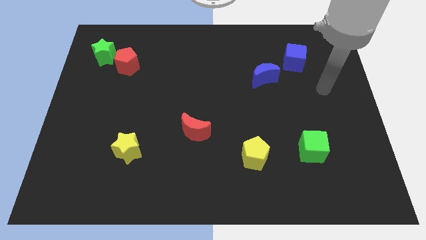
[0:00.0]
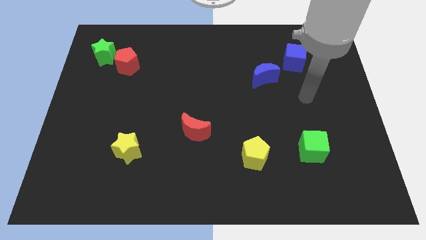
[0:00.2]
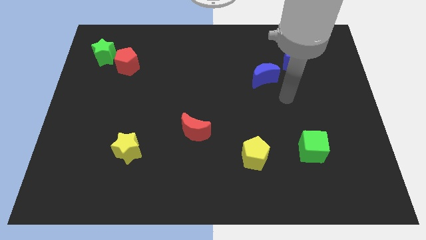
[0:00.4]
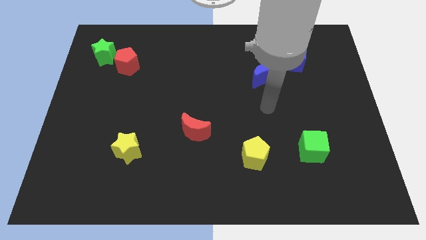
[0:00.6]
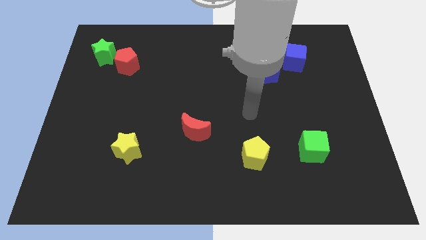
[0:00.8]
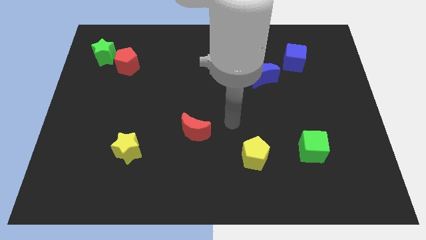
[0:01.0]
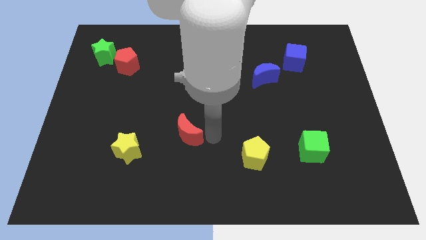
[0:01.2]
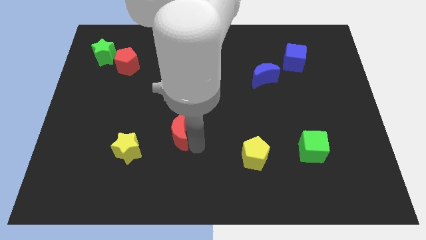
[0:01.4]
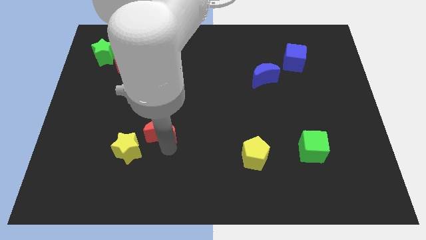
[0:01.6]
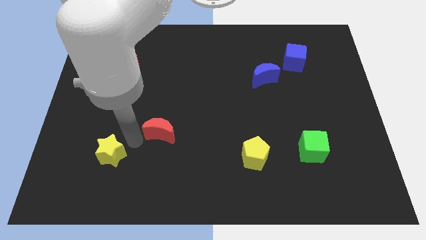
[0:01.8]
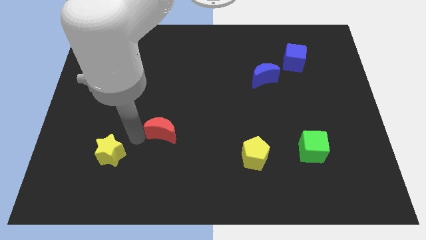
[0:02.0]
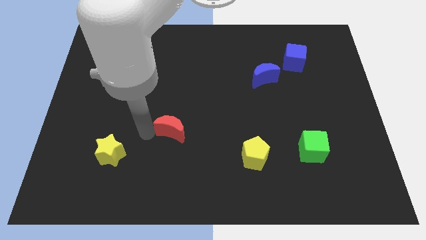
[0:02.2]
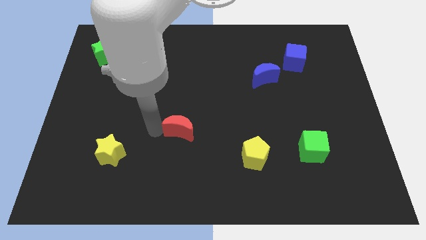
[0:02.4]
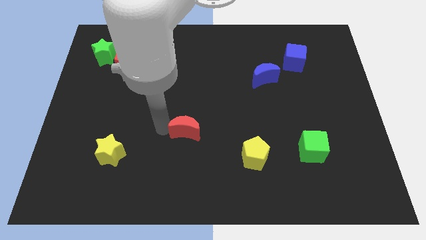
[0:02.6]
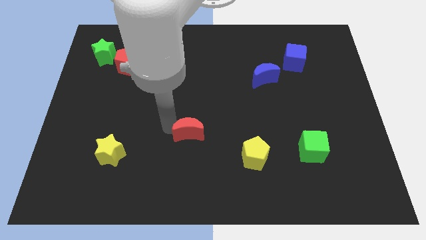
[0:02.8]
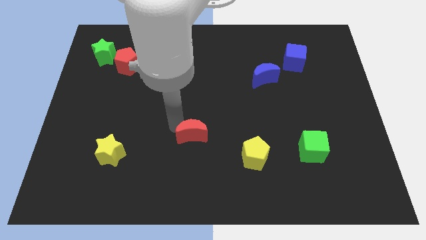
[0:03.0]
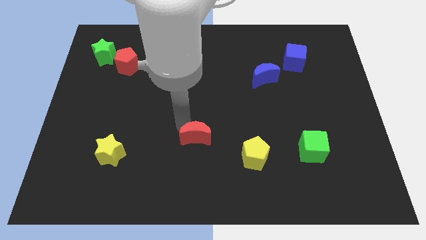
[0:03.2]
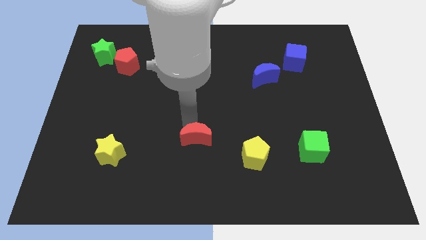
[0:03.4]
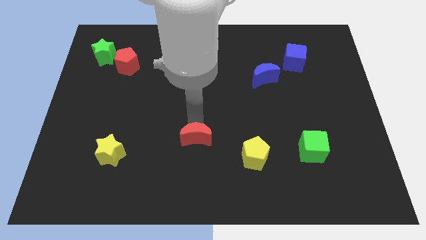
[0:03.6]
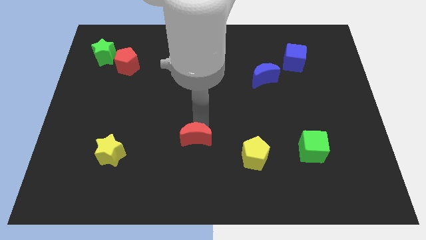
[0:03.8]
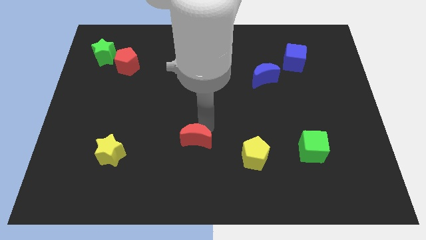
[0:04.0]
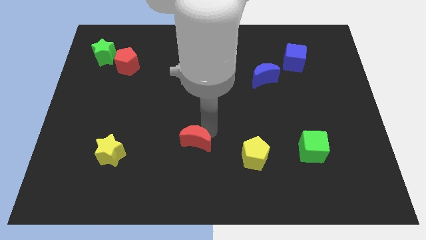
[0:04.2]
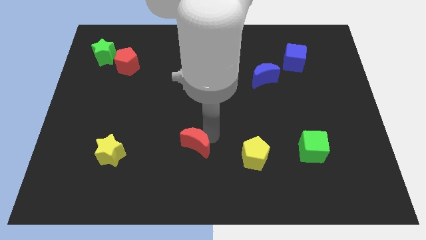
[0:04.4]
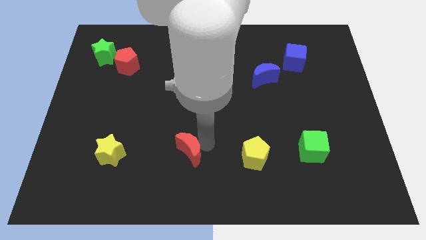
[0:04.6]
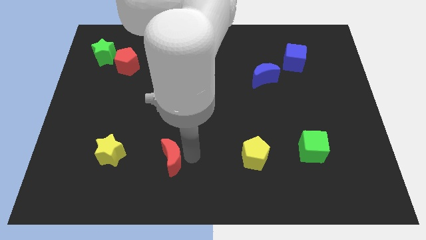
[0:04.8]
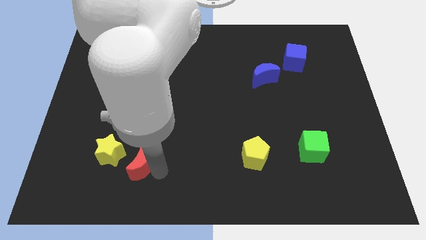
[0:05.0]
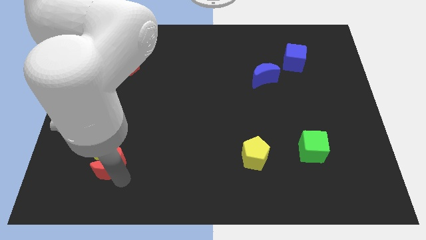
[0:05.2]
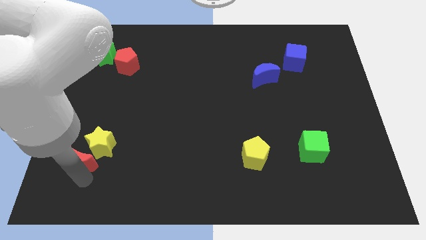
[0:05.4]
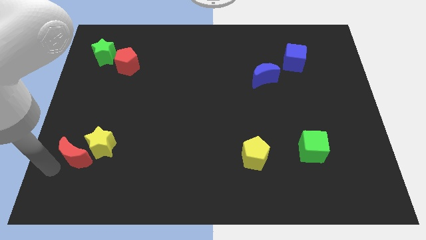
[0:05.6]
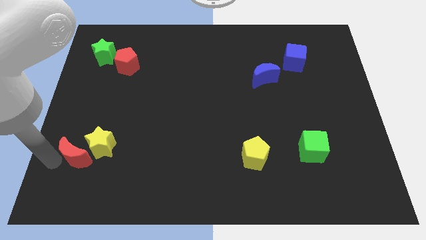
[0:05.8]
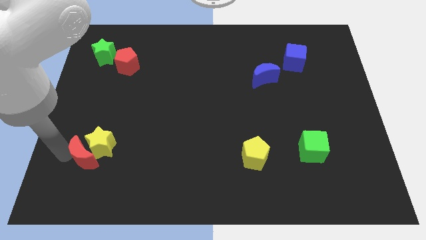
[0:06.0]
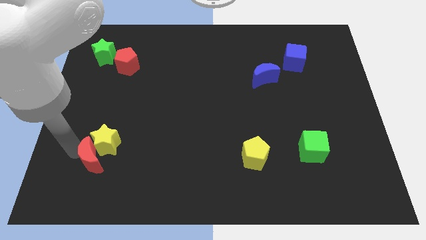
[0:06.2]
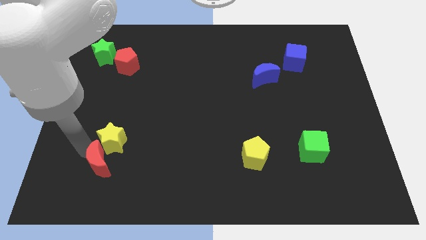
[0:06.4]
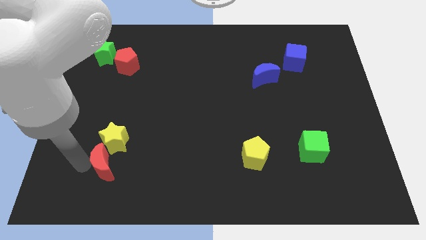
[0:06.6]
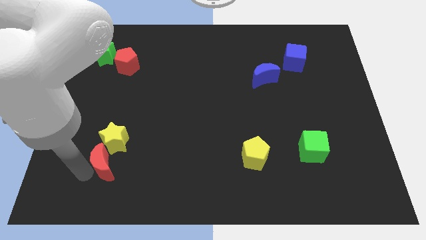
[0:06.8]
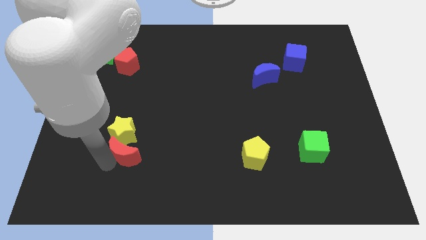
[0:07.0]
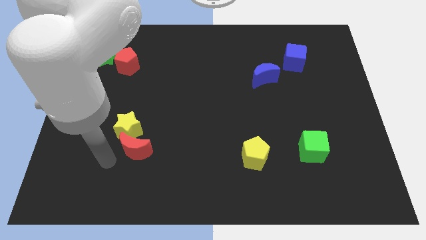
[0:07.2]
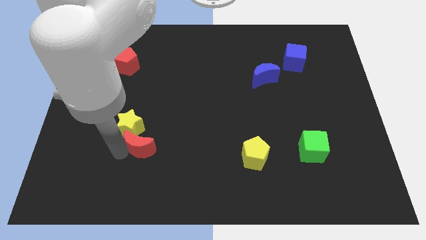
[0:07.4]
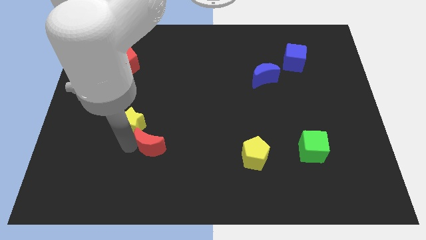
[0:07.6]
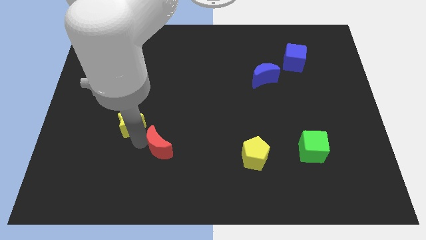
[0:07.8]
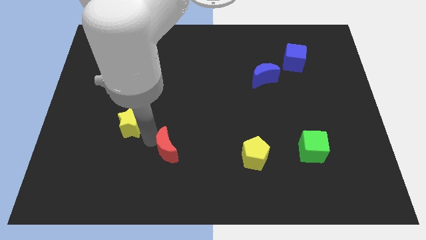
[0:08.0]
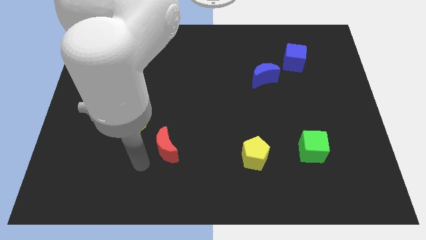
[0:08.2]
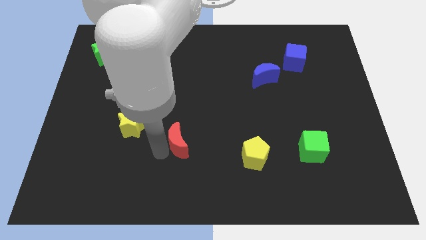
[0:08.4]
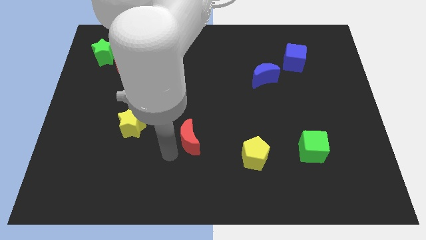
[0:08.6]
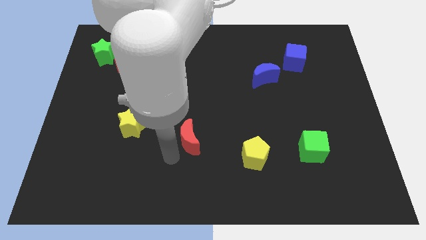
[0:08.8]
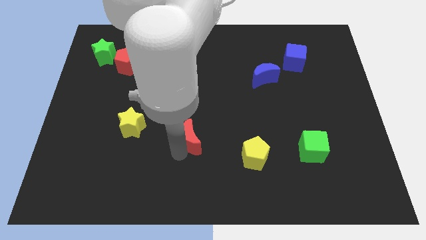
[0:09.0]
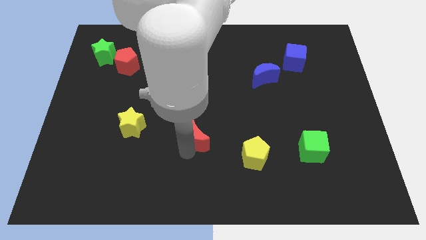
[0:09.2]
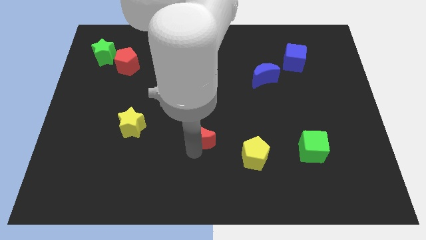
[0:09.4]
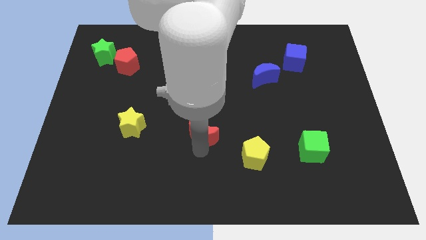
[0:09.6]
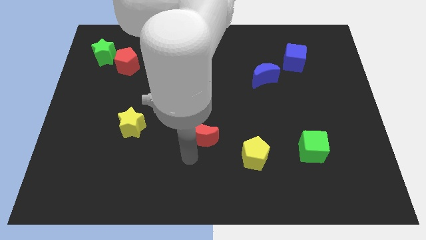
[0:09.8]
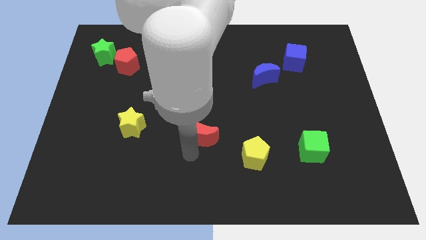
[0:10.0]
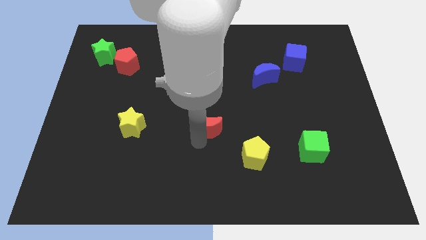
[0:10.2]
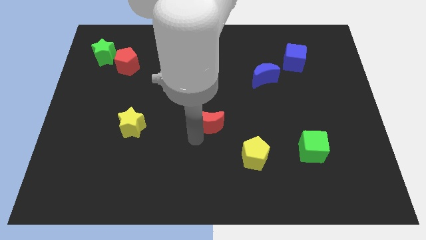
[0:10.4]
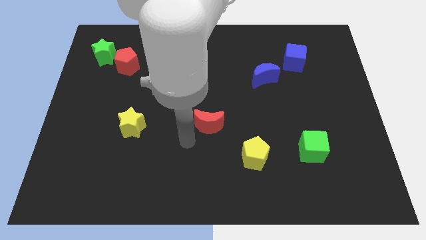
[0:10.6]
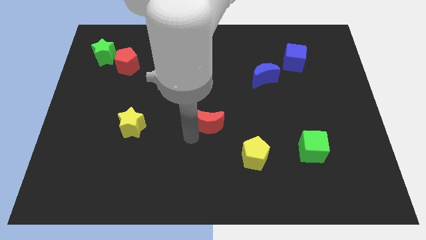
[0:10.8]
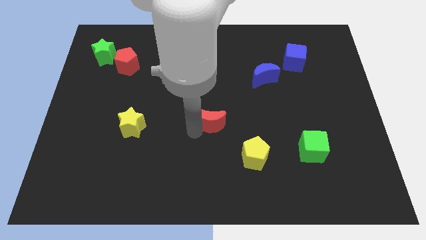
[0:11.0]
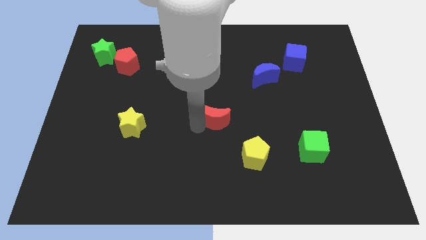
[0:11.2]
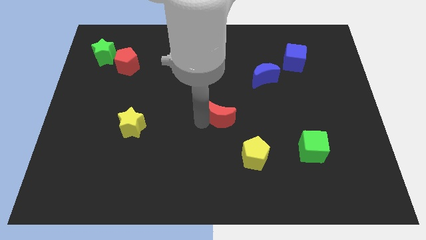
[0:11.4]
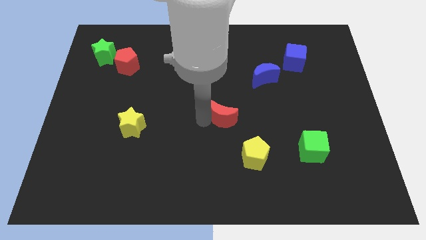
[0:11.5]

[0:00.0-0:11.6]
slightly push the red moon upwards and right diagonally

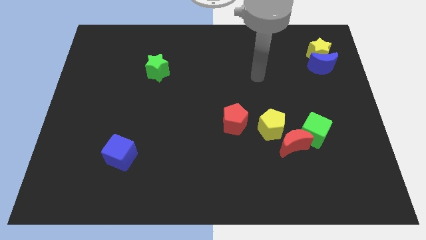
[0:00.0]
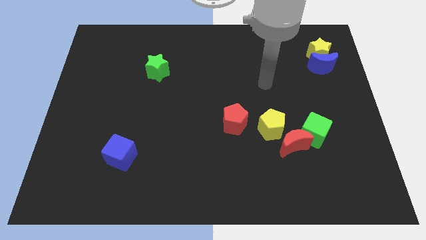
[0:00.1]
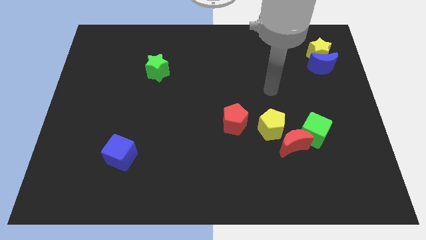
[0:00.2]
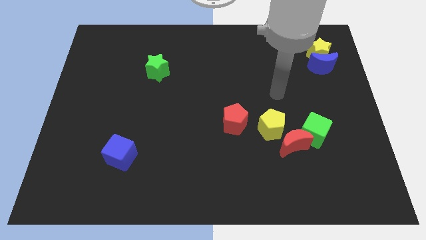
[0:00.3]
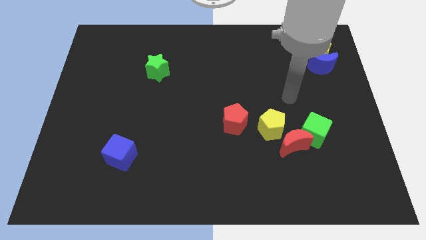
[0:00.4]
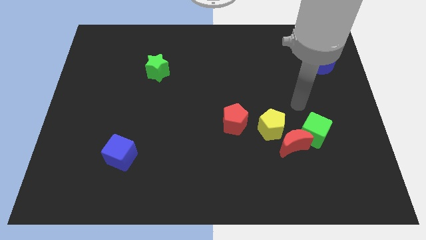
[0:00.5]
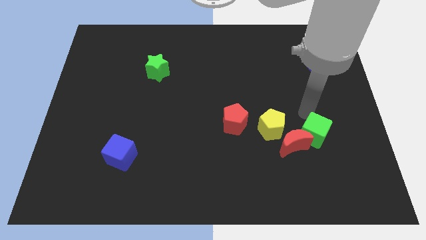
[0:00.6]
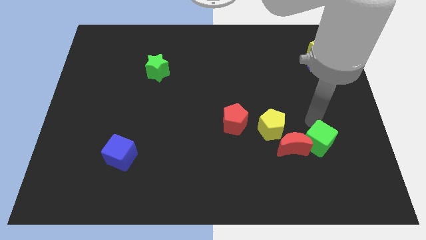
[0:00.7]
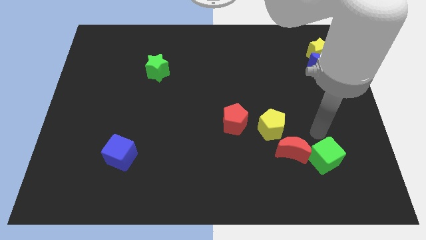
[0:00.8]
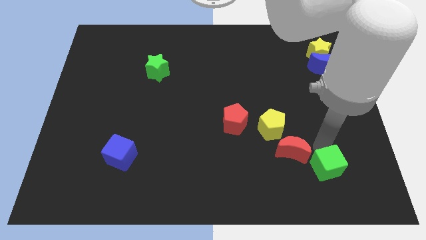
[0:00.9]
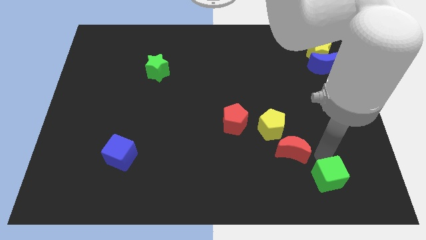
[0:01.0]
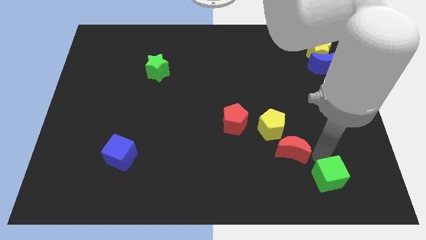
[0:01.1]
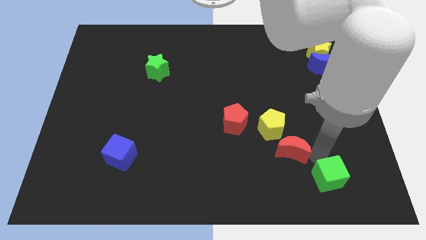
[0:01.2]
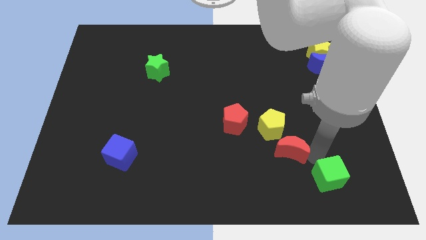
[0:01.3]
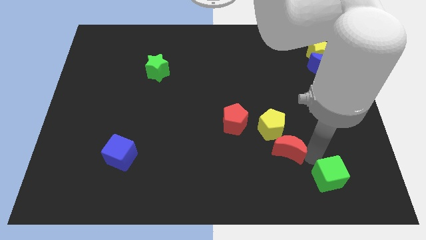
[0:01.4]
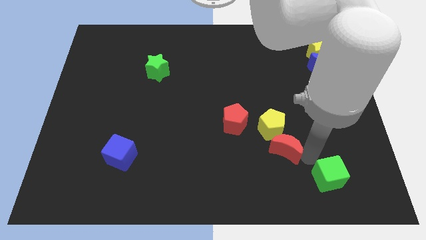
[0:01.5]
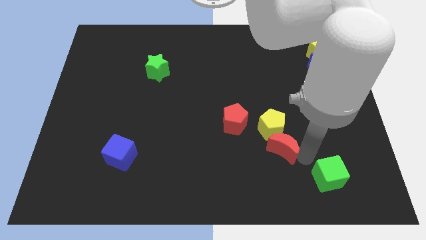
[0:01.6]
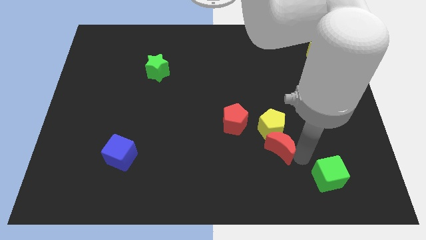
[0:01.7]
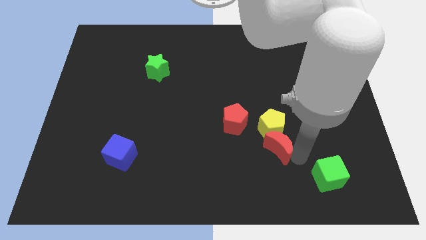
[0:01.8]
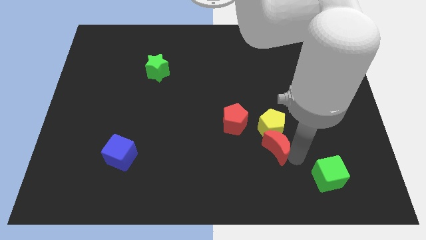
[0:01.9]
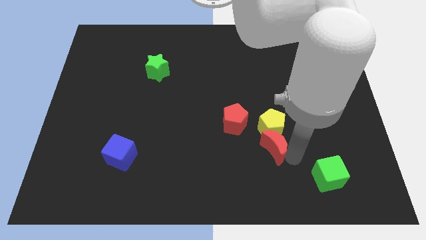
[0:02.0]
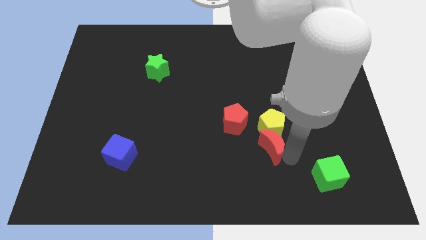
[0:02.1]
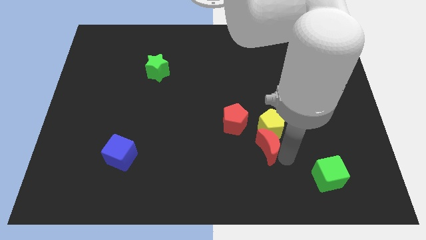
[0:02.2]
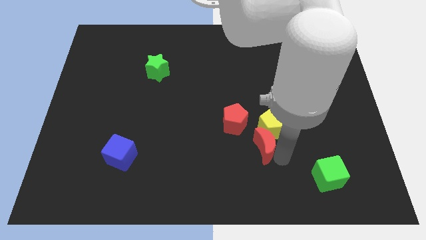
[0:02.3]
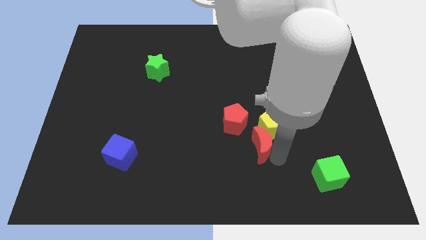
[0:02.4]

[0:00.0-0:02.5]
slightly slide the red moon to the left
